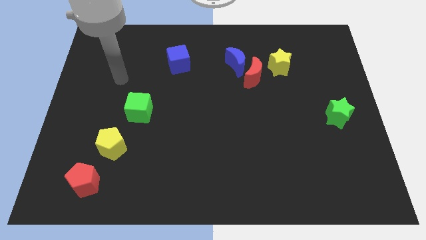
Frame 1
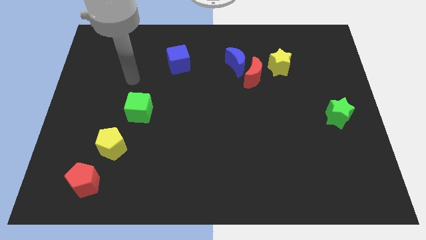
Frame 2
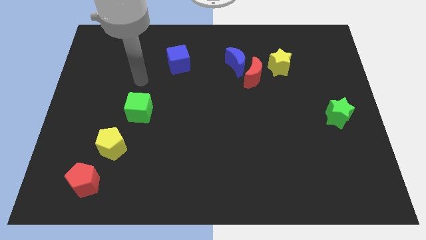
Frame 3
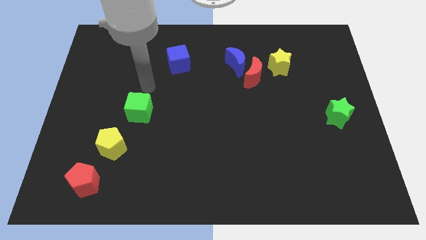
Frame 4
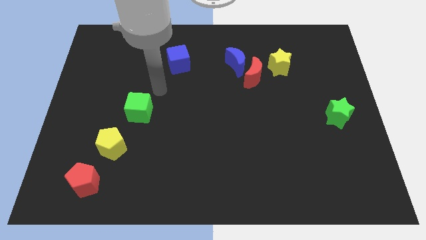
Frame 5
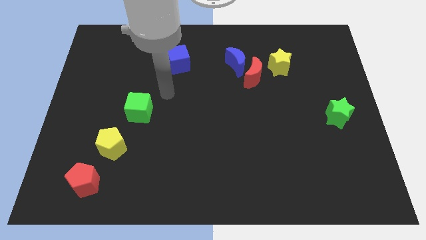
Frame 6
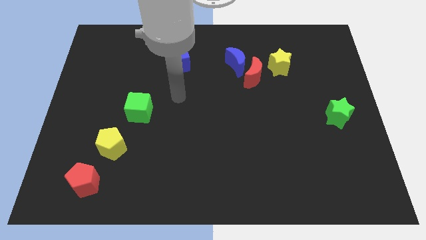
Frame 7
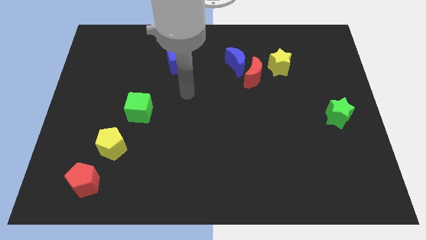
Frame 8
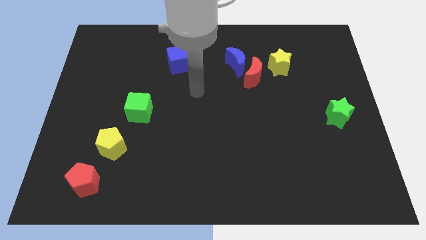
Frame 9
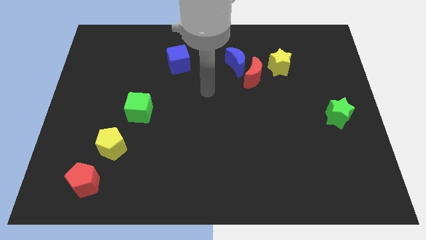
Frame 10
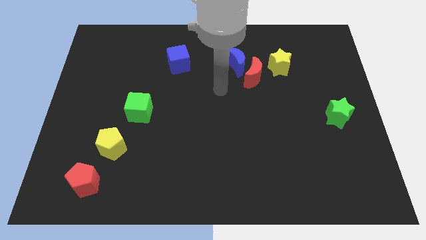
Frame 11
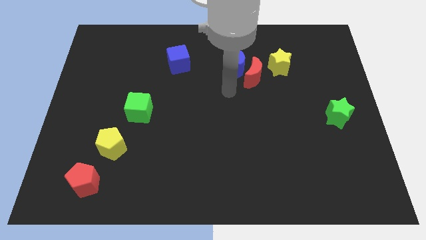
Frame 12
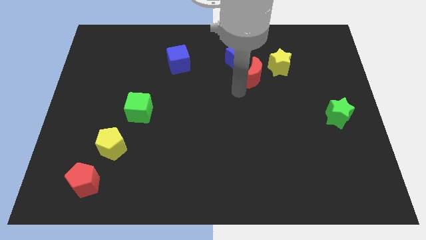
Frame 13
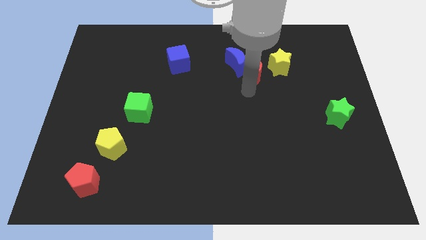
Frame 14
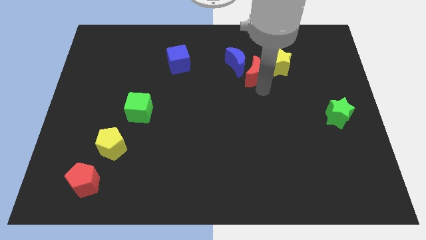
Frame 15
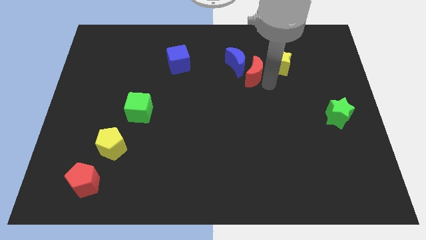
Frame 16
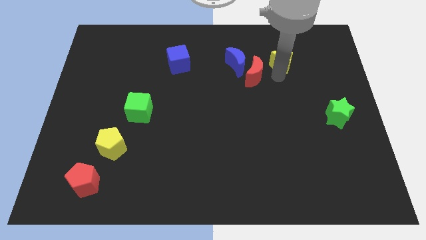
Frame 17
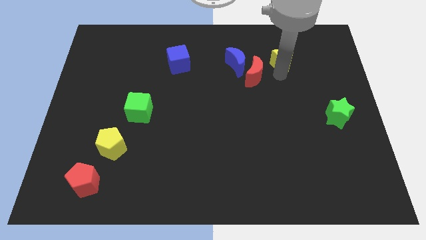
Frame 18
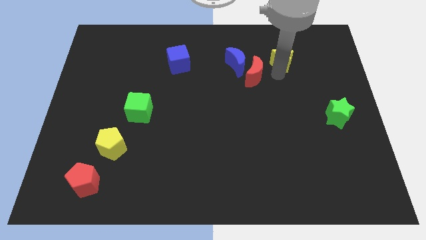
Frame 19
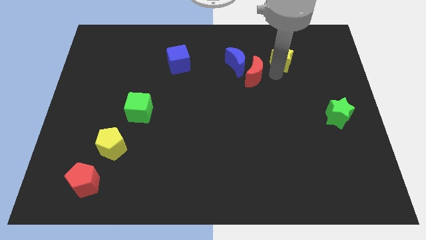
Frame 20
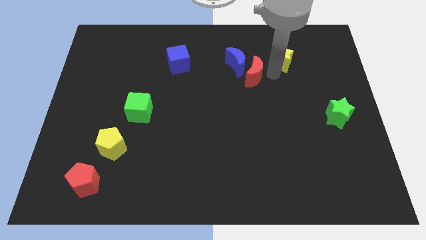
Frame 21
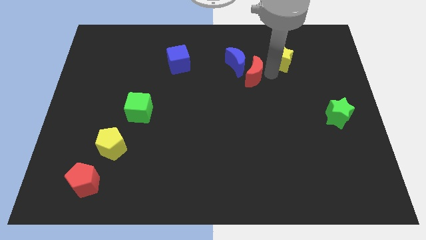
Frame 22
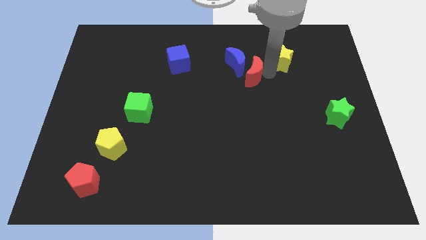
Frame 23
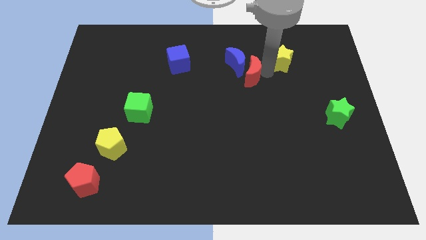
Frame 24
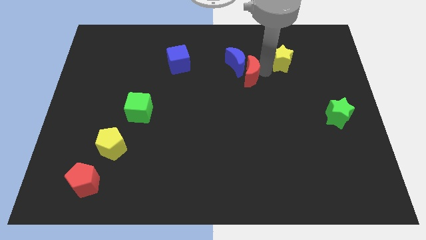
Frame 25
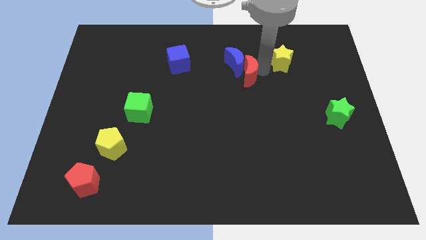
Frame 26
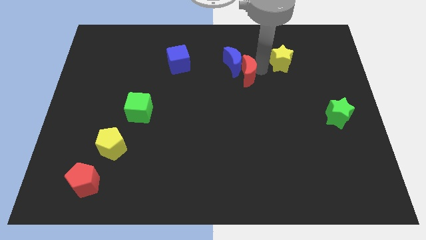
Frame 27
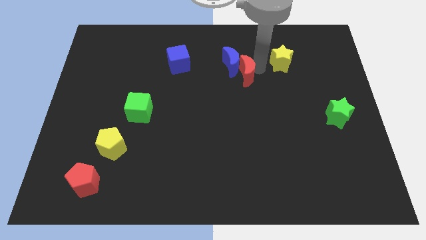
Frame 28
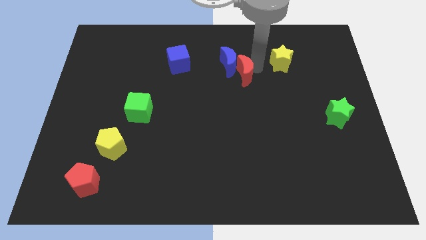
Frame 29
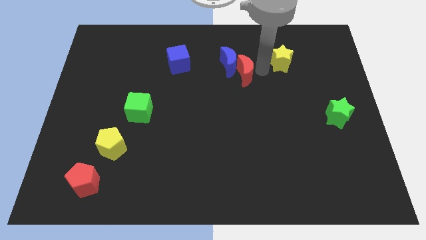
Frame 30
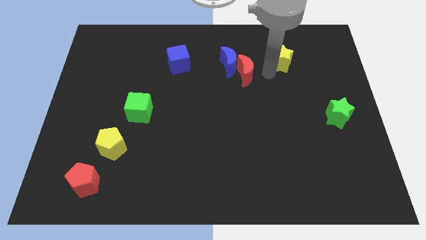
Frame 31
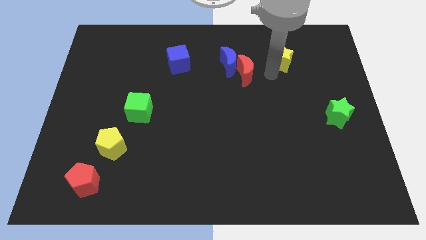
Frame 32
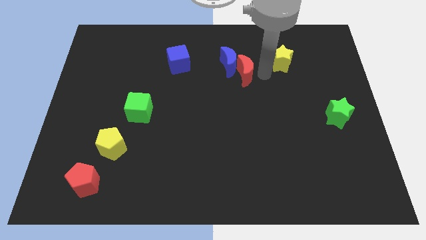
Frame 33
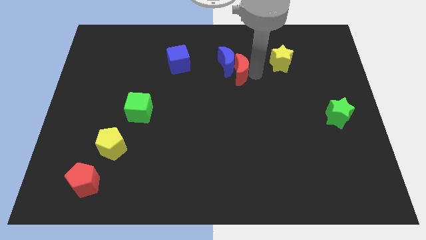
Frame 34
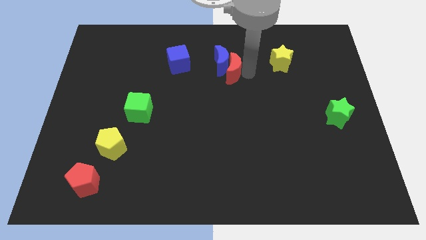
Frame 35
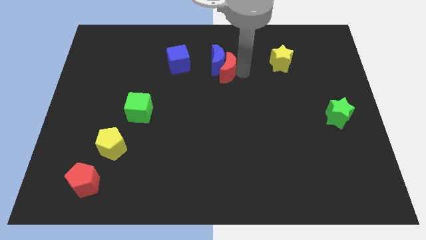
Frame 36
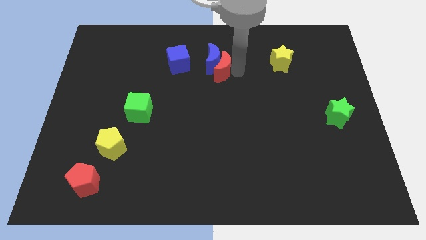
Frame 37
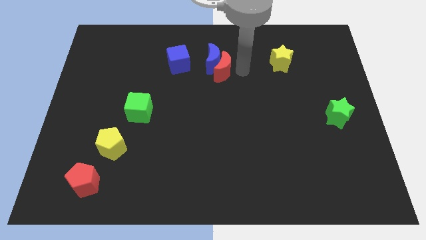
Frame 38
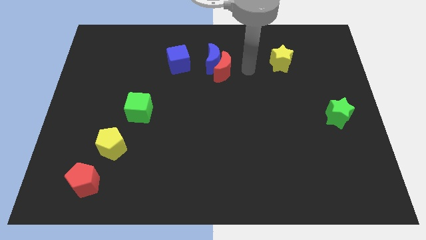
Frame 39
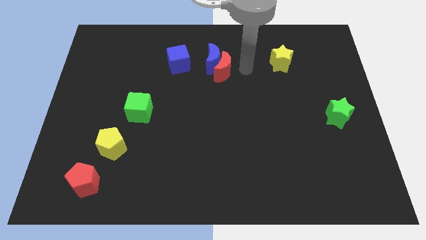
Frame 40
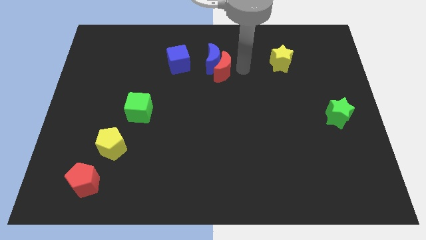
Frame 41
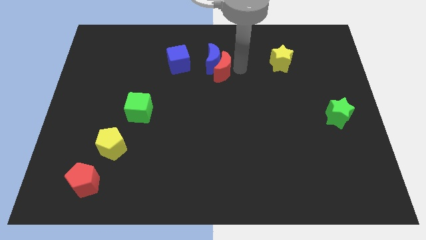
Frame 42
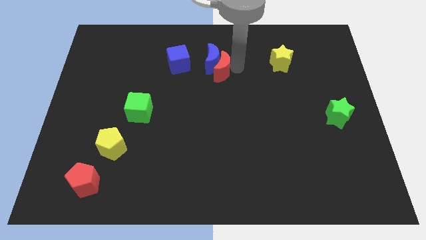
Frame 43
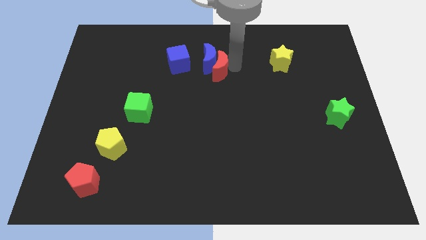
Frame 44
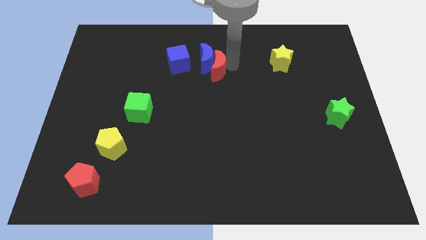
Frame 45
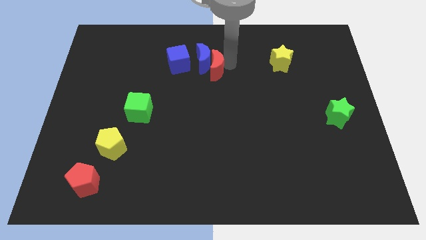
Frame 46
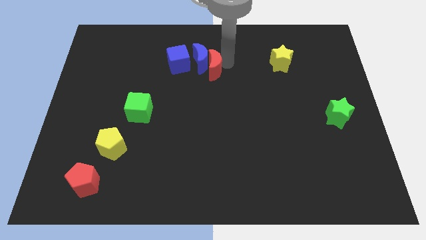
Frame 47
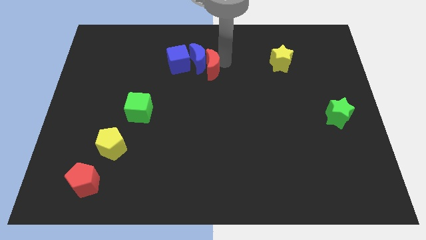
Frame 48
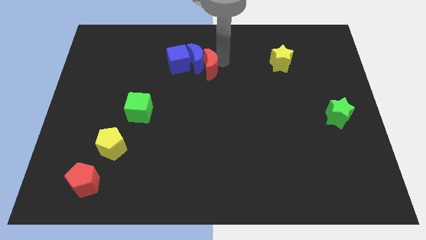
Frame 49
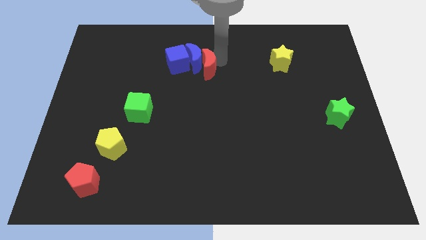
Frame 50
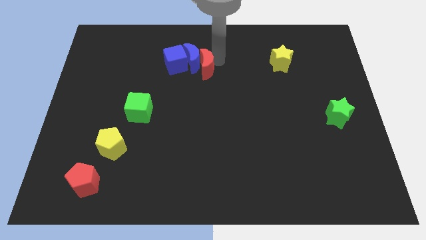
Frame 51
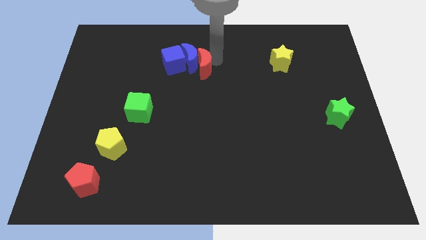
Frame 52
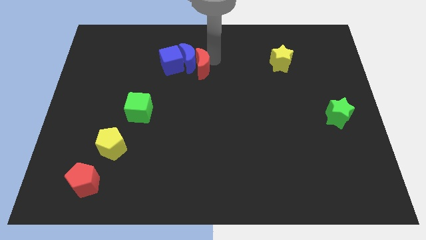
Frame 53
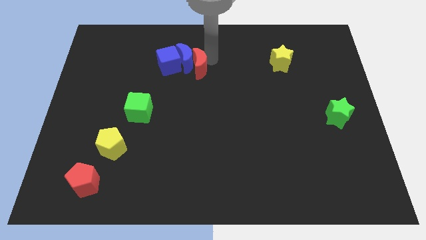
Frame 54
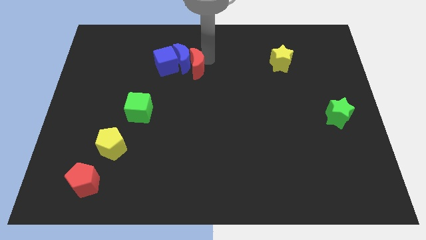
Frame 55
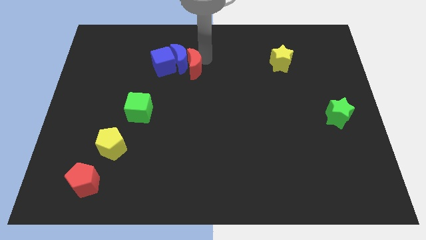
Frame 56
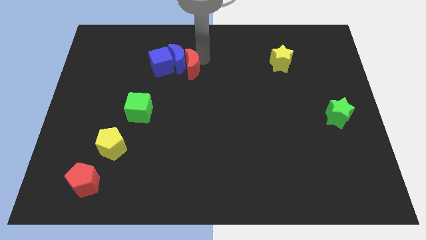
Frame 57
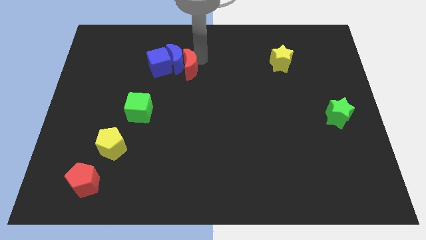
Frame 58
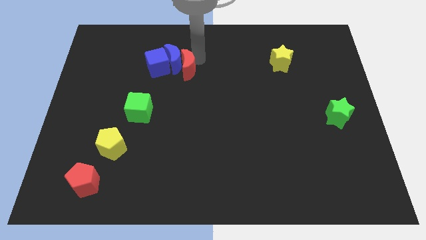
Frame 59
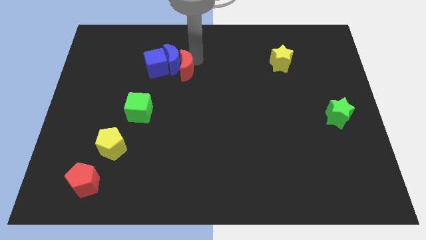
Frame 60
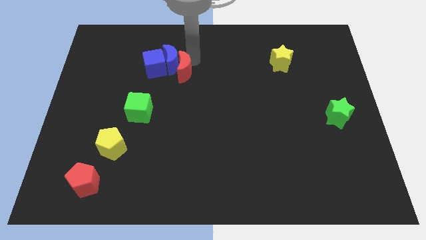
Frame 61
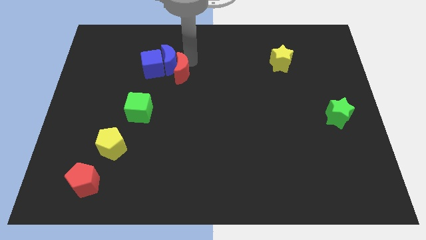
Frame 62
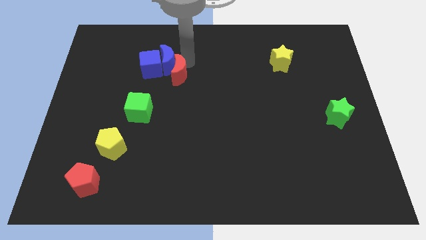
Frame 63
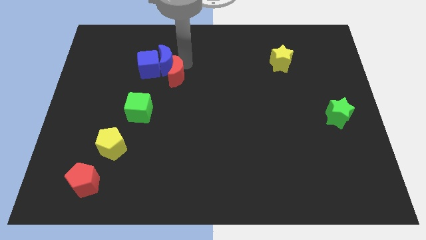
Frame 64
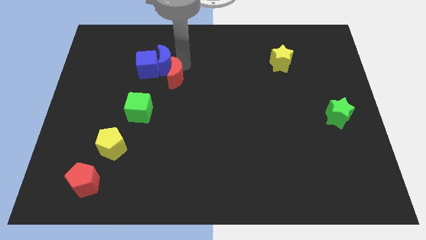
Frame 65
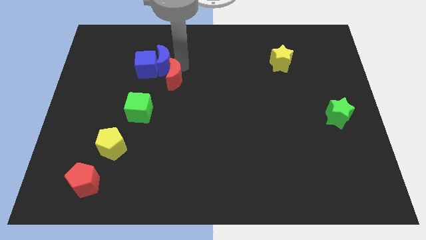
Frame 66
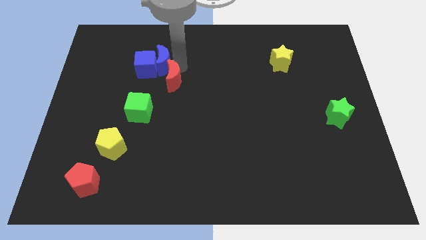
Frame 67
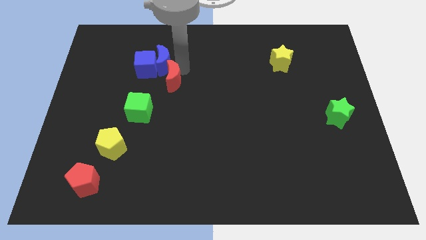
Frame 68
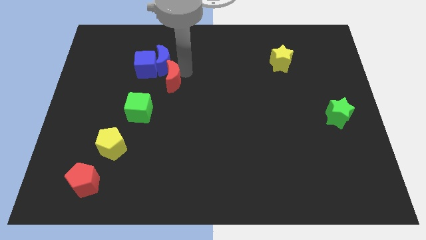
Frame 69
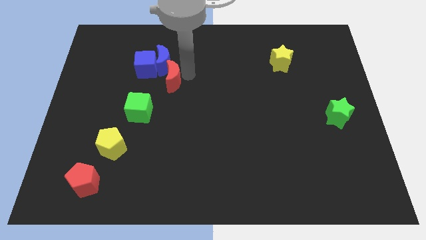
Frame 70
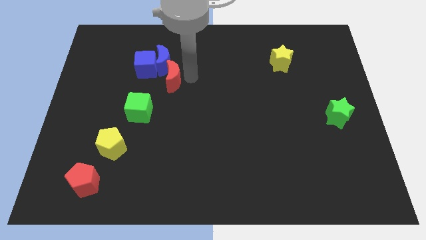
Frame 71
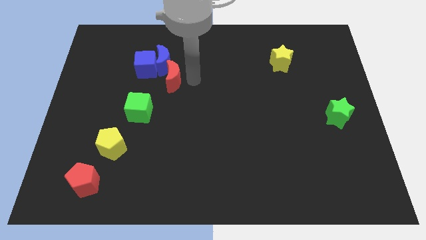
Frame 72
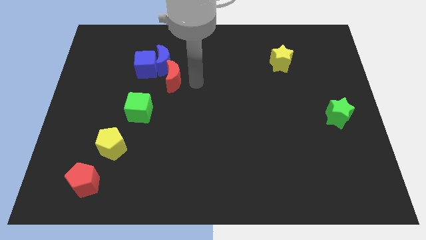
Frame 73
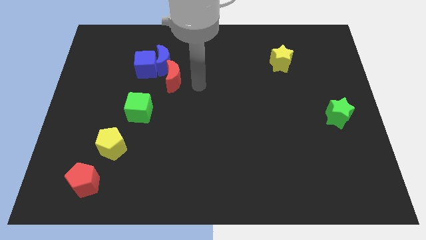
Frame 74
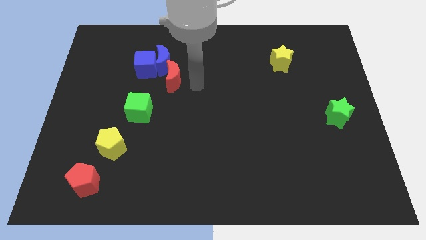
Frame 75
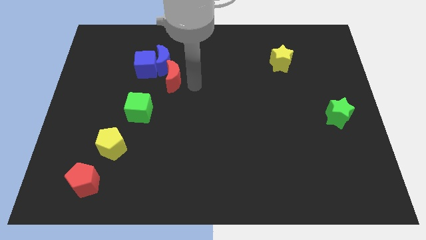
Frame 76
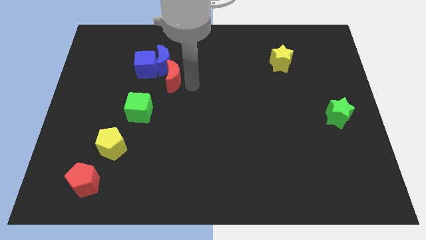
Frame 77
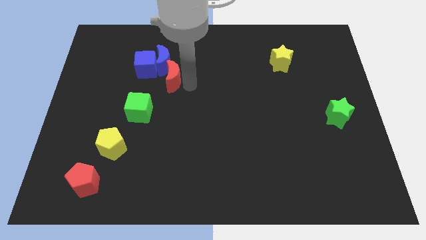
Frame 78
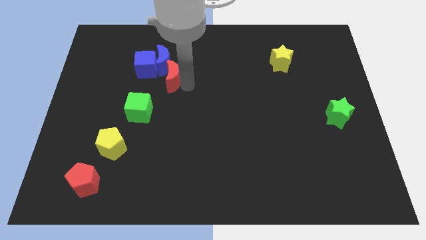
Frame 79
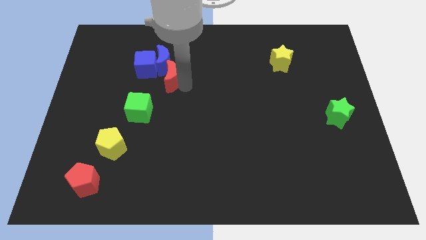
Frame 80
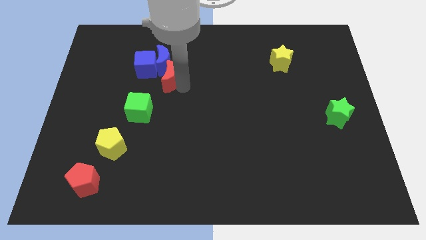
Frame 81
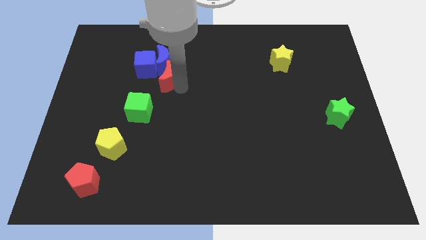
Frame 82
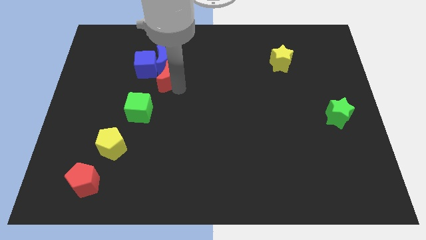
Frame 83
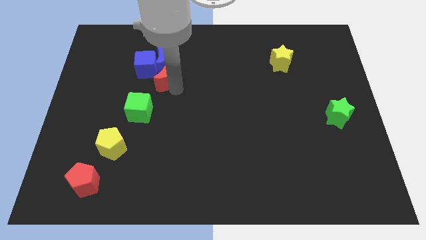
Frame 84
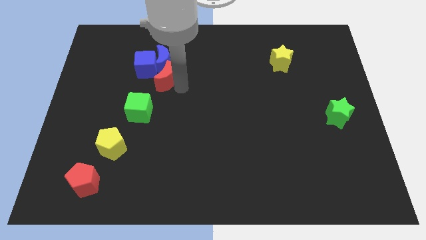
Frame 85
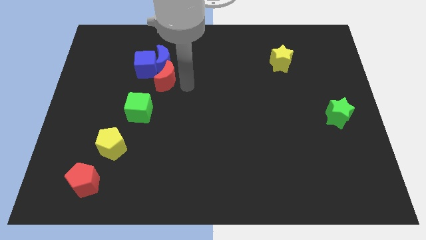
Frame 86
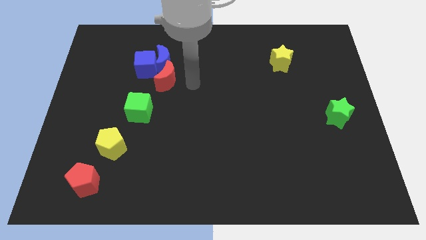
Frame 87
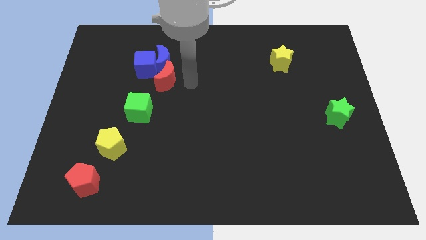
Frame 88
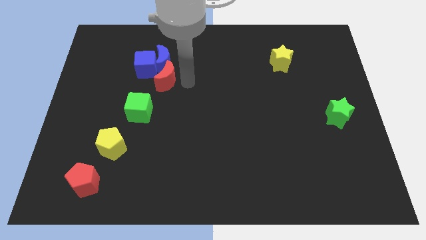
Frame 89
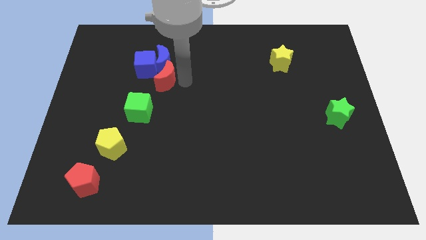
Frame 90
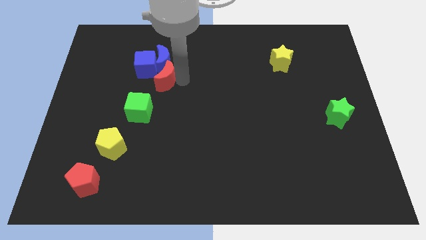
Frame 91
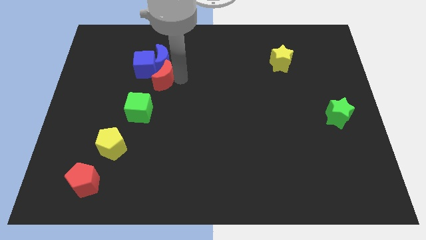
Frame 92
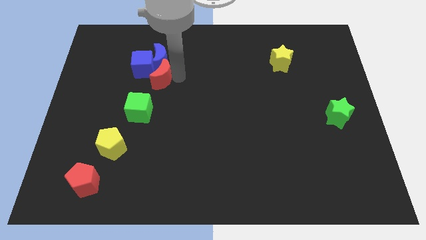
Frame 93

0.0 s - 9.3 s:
put the red moon above the green cube
